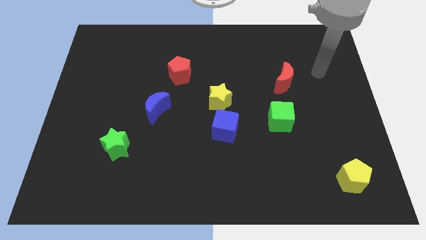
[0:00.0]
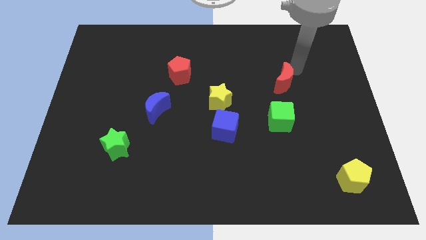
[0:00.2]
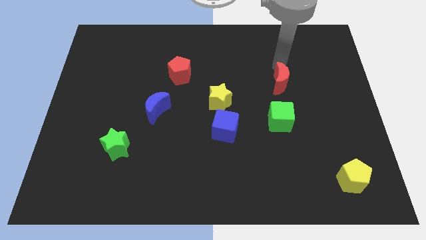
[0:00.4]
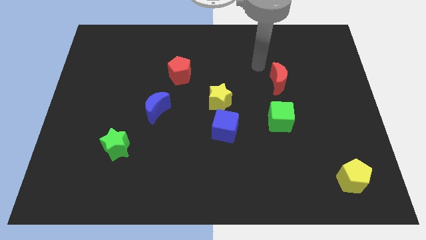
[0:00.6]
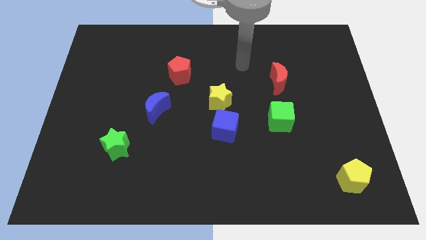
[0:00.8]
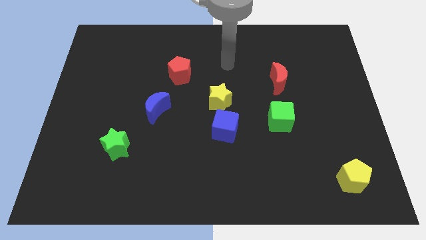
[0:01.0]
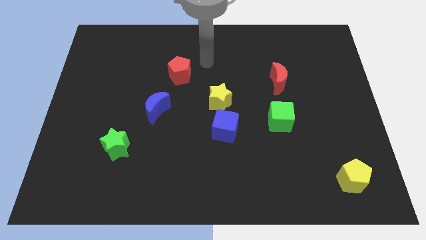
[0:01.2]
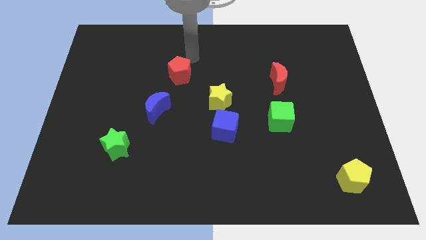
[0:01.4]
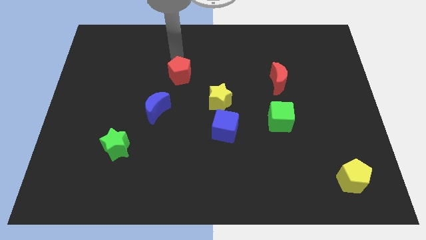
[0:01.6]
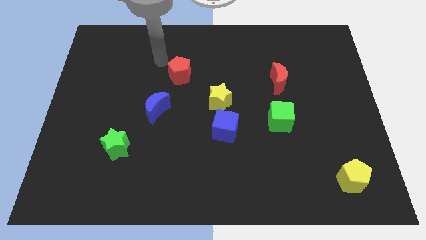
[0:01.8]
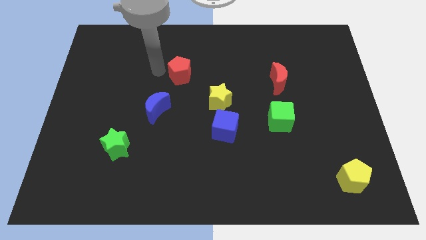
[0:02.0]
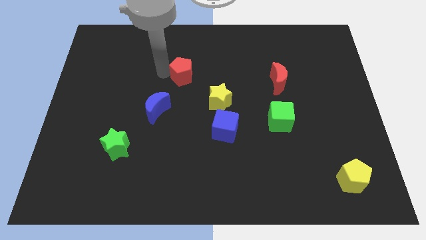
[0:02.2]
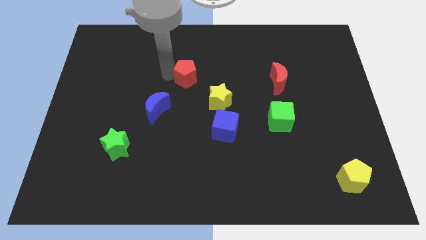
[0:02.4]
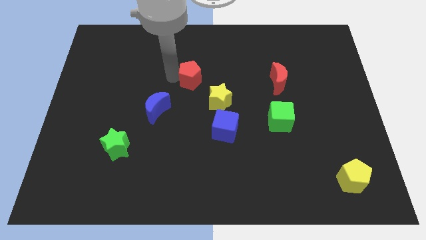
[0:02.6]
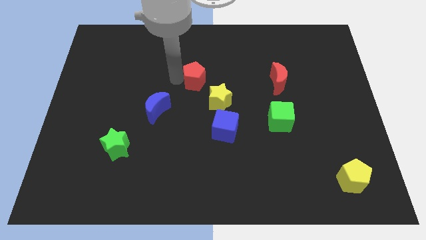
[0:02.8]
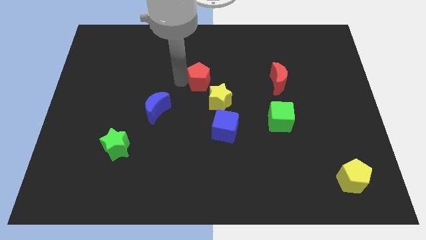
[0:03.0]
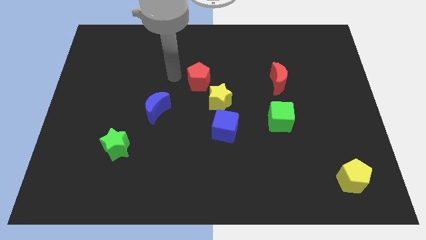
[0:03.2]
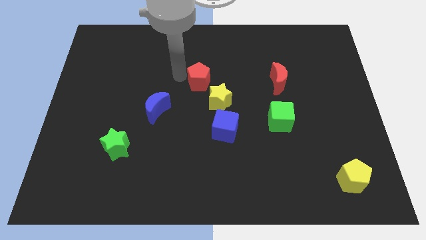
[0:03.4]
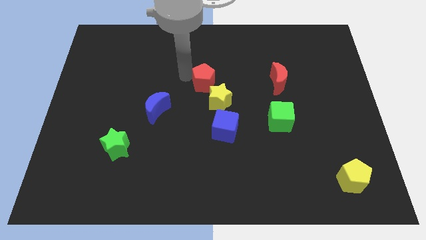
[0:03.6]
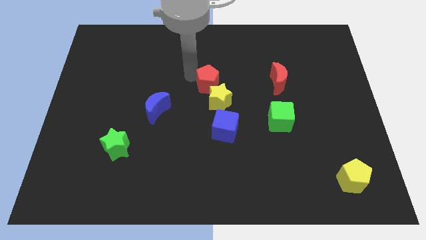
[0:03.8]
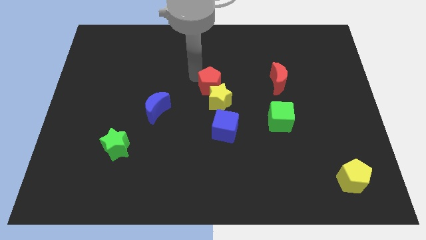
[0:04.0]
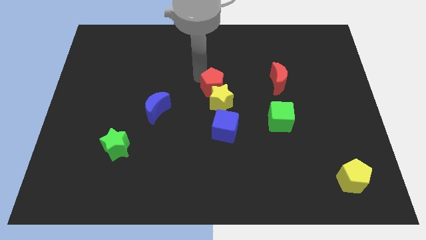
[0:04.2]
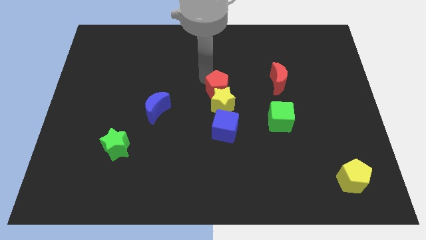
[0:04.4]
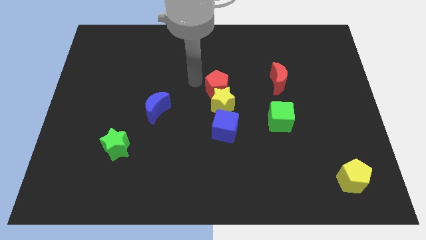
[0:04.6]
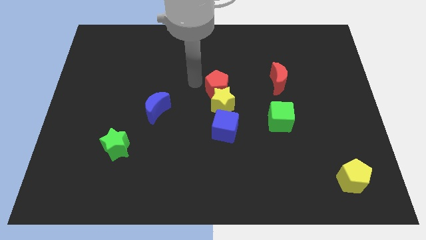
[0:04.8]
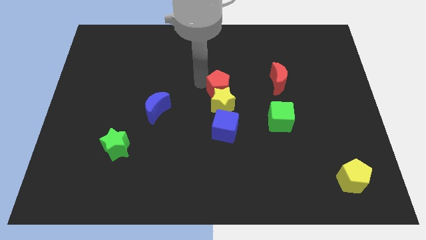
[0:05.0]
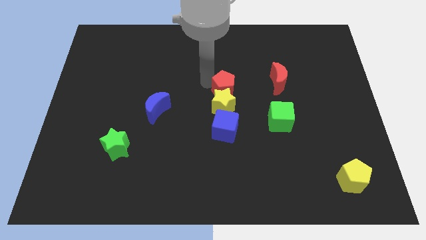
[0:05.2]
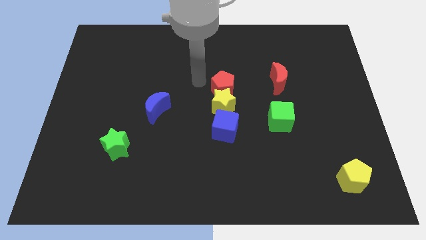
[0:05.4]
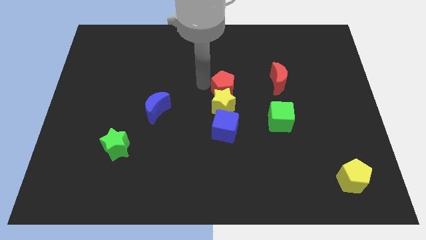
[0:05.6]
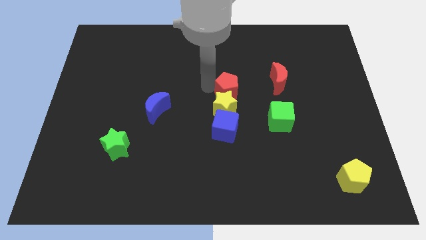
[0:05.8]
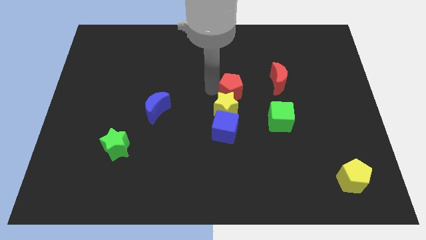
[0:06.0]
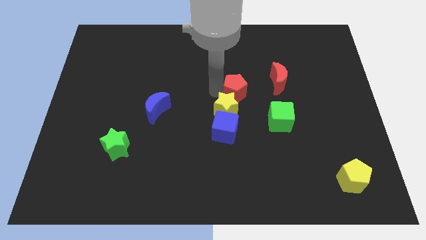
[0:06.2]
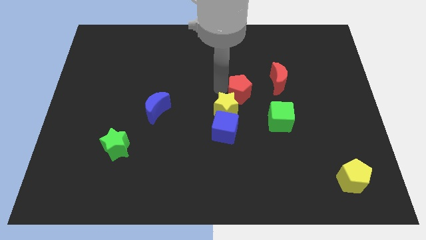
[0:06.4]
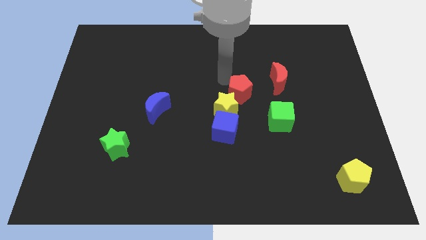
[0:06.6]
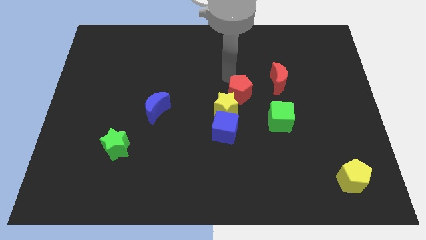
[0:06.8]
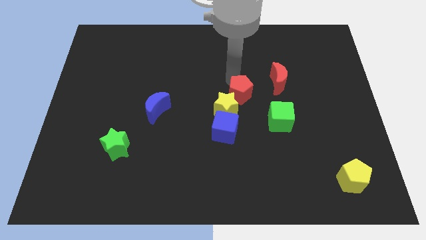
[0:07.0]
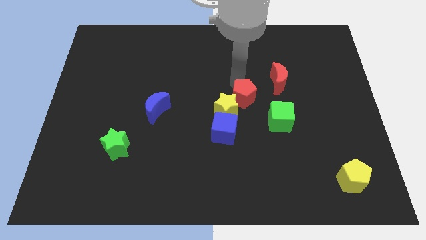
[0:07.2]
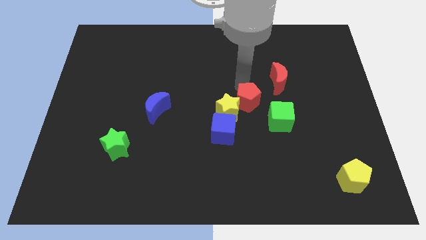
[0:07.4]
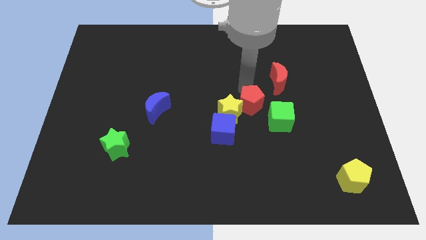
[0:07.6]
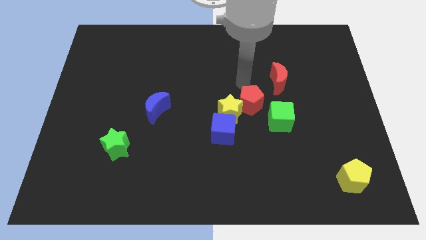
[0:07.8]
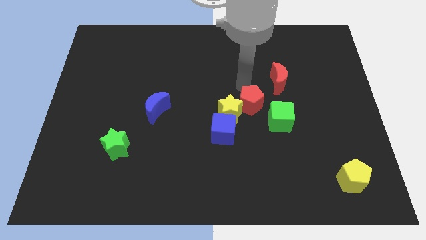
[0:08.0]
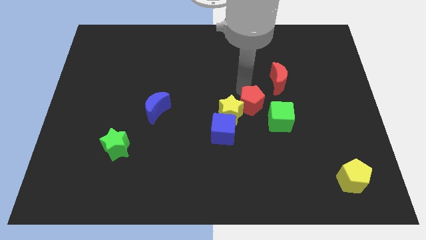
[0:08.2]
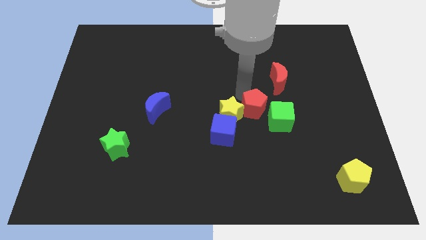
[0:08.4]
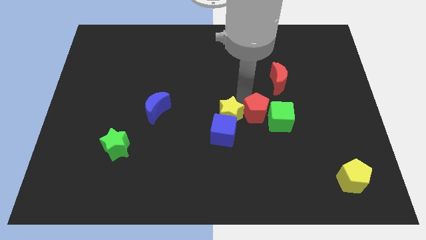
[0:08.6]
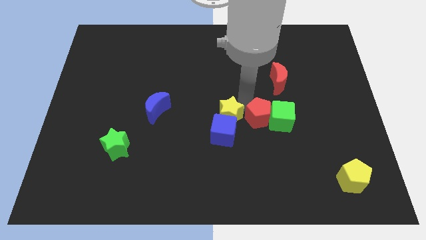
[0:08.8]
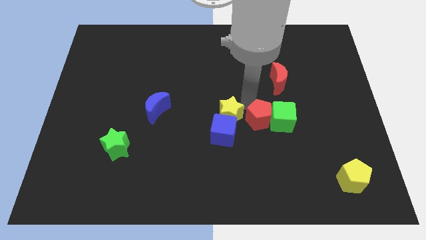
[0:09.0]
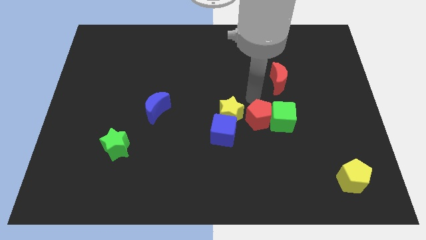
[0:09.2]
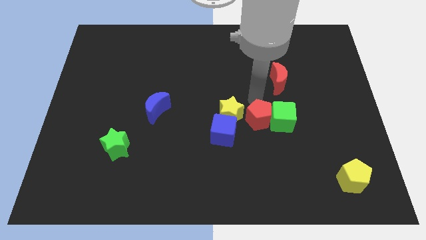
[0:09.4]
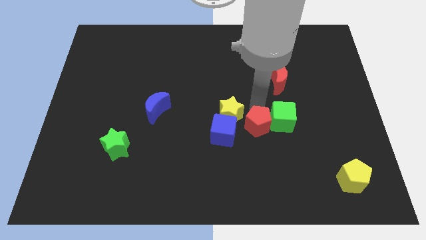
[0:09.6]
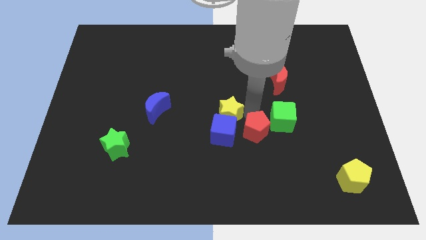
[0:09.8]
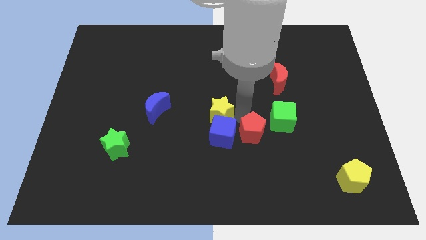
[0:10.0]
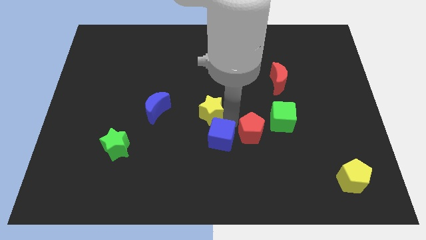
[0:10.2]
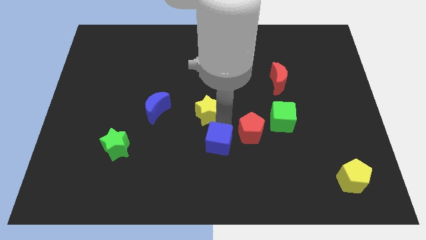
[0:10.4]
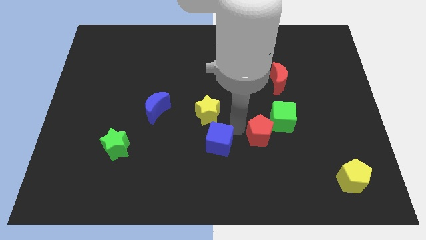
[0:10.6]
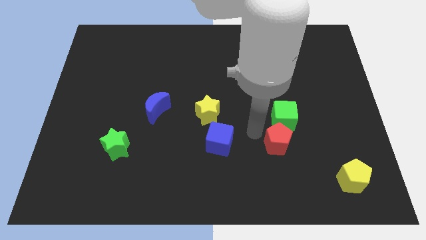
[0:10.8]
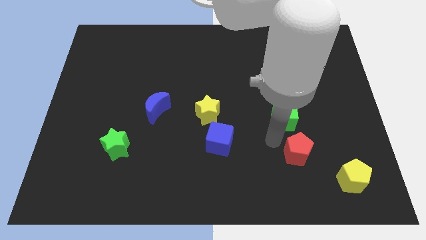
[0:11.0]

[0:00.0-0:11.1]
move the red pentagon to the top left side of the yellow pentagon
